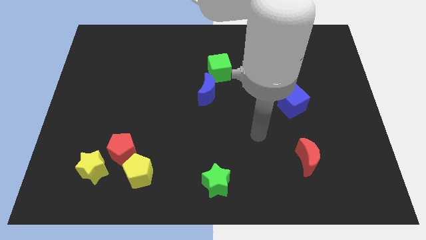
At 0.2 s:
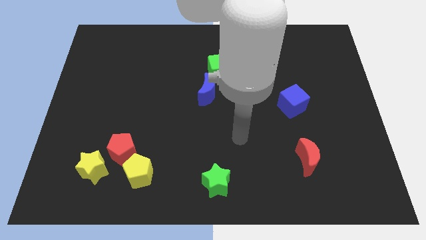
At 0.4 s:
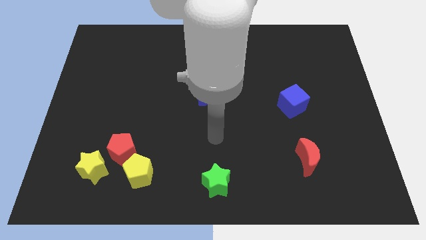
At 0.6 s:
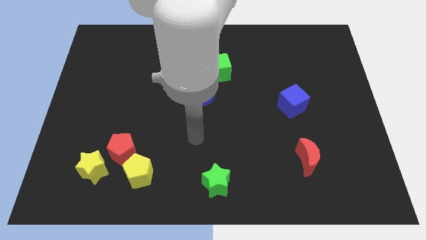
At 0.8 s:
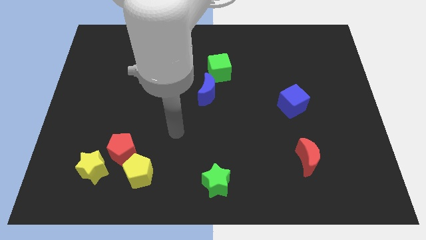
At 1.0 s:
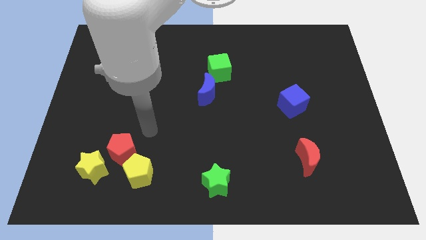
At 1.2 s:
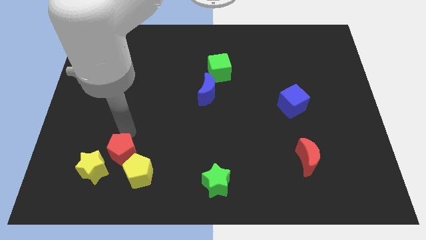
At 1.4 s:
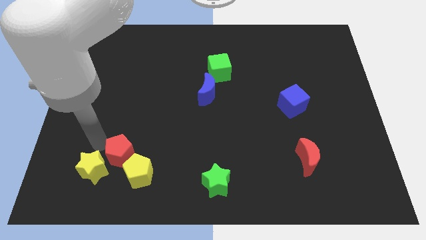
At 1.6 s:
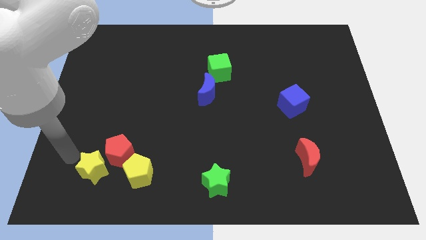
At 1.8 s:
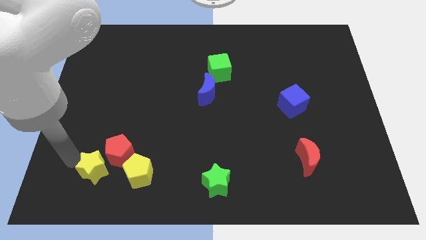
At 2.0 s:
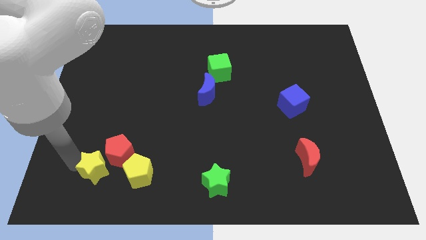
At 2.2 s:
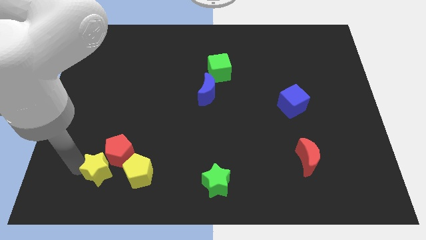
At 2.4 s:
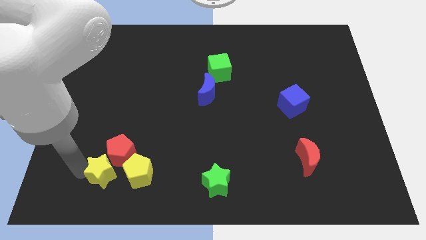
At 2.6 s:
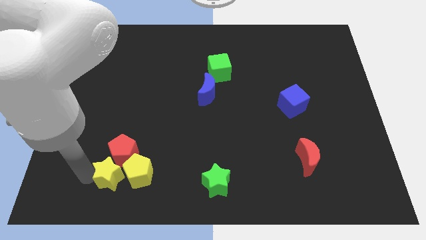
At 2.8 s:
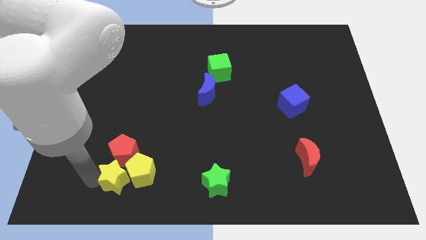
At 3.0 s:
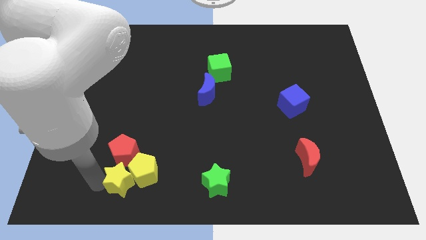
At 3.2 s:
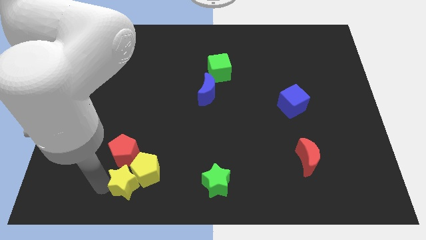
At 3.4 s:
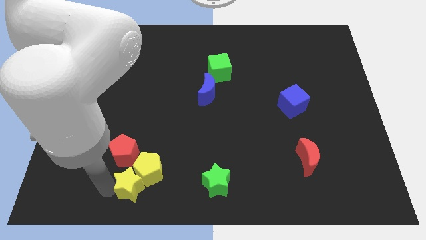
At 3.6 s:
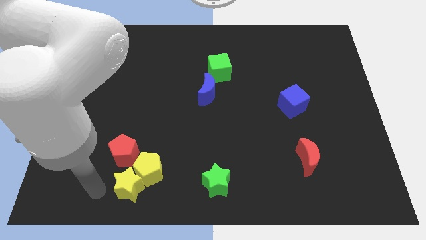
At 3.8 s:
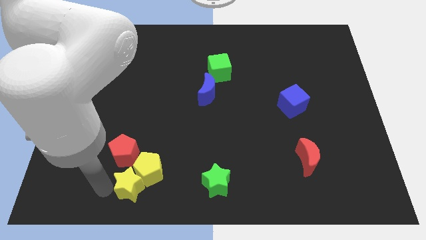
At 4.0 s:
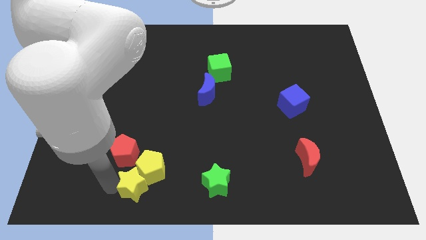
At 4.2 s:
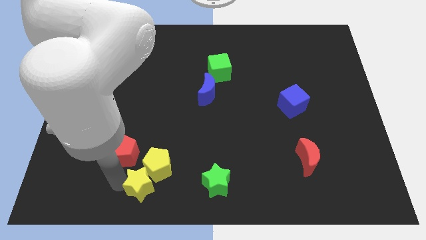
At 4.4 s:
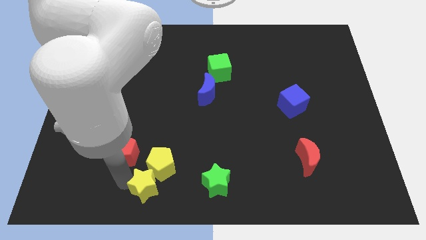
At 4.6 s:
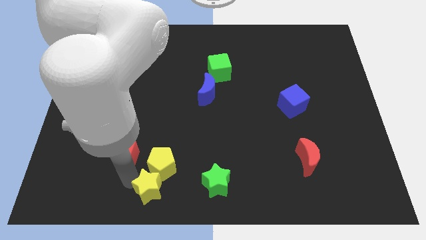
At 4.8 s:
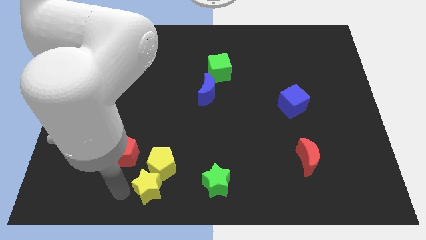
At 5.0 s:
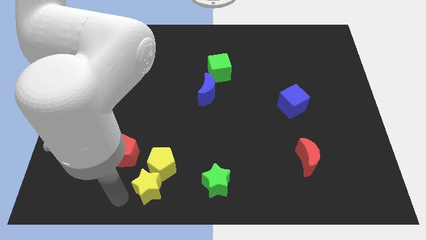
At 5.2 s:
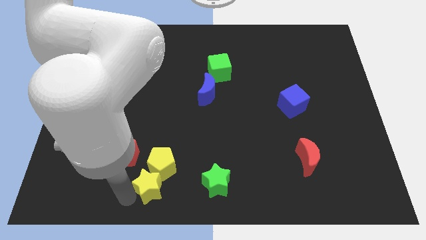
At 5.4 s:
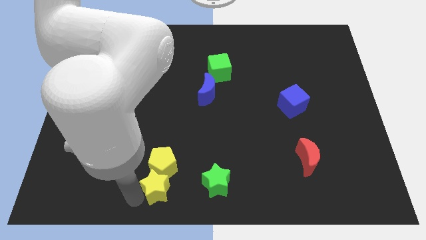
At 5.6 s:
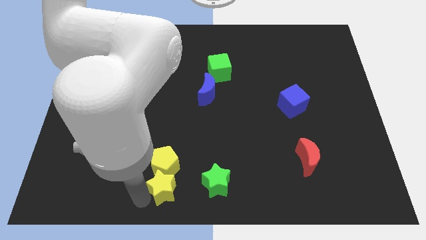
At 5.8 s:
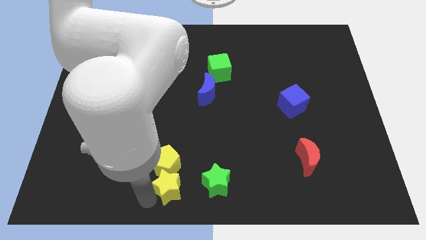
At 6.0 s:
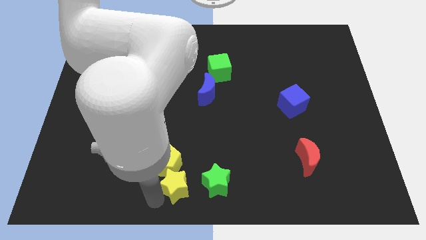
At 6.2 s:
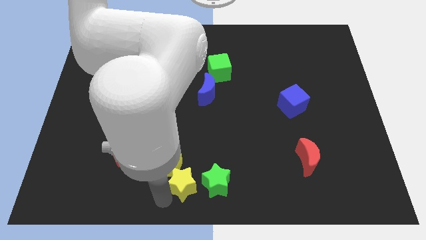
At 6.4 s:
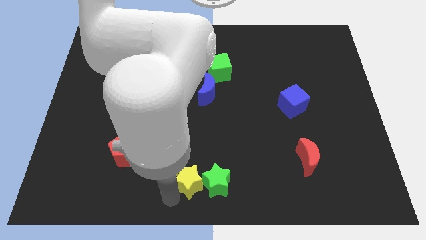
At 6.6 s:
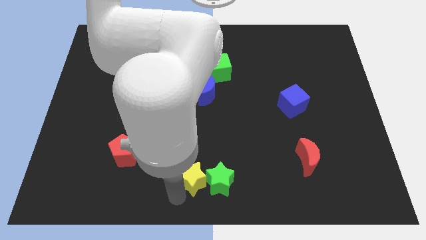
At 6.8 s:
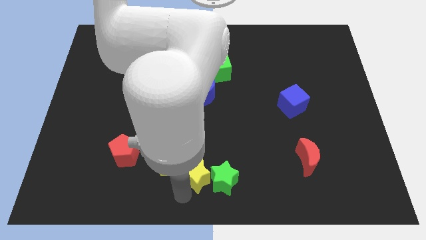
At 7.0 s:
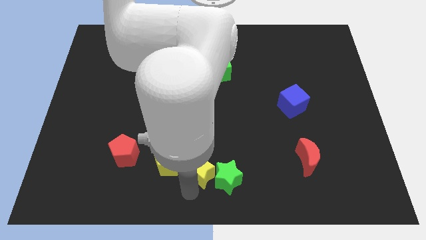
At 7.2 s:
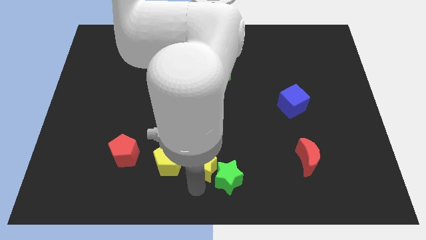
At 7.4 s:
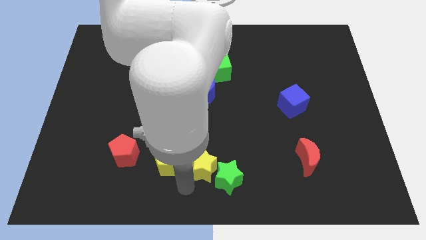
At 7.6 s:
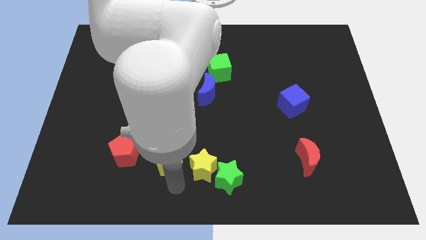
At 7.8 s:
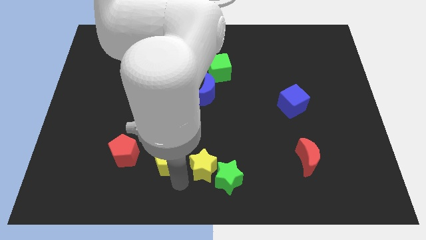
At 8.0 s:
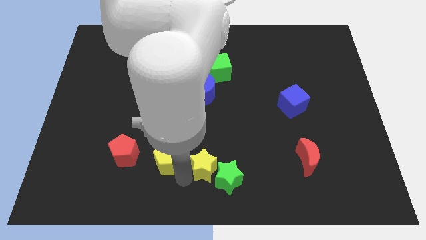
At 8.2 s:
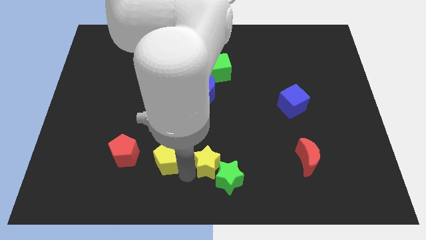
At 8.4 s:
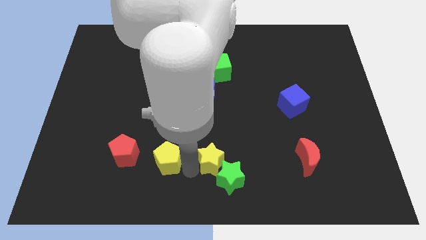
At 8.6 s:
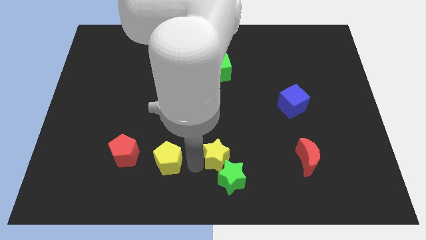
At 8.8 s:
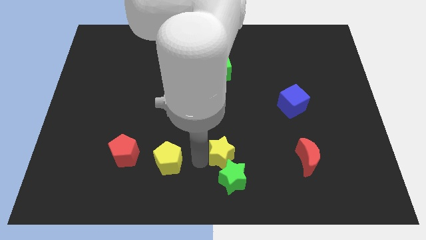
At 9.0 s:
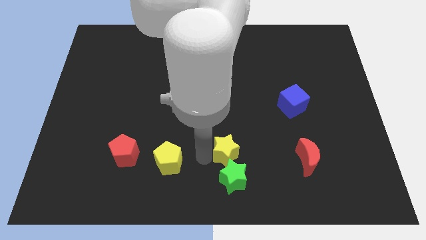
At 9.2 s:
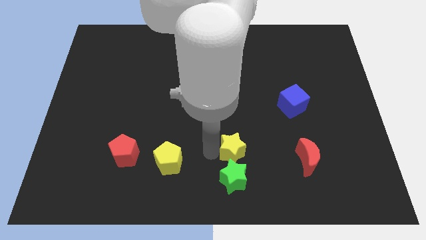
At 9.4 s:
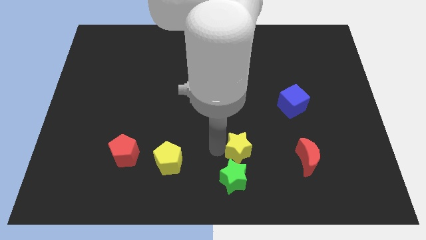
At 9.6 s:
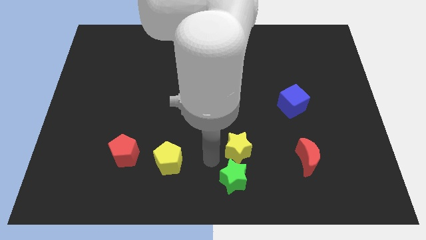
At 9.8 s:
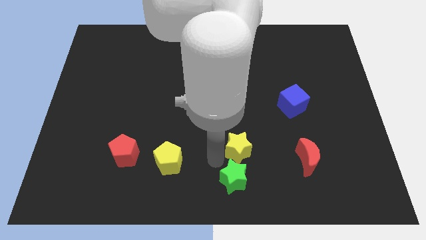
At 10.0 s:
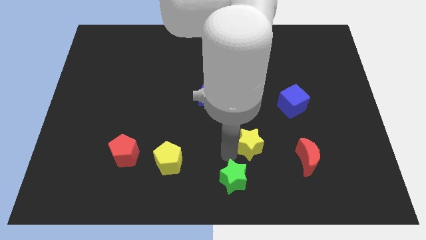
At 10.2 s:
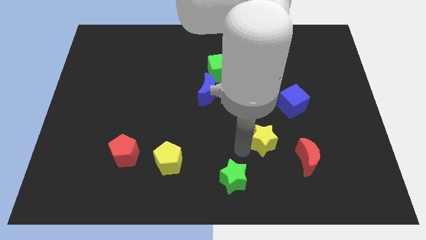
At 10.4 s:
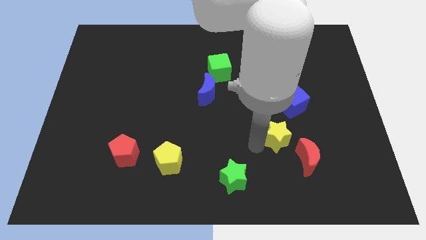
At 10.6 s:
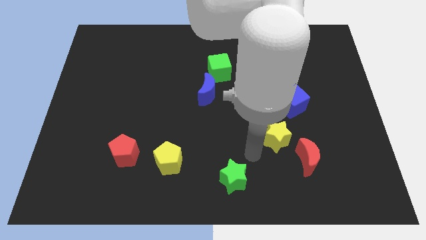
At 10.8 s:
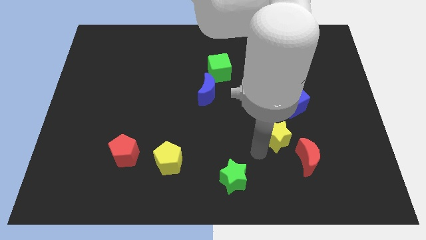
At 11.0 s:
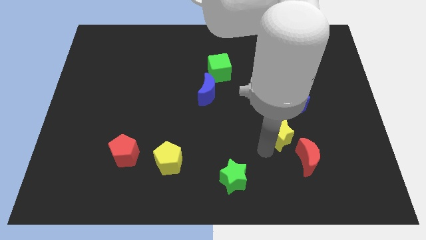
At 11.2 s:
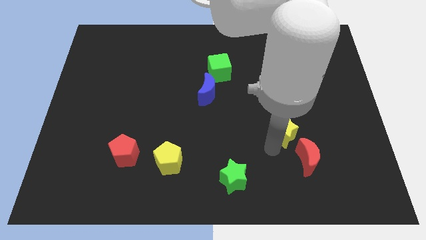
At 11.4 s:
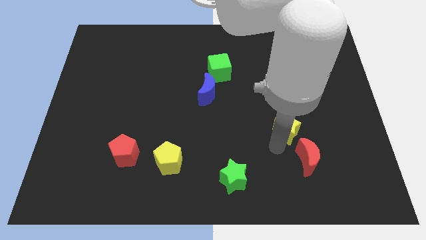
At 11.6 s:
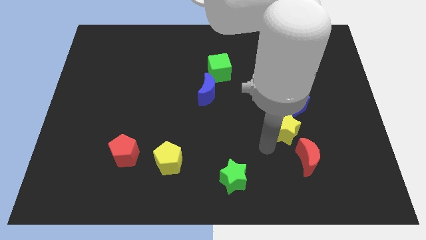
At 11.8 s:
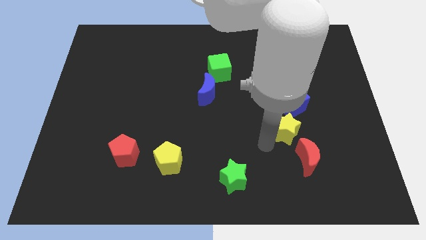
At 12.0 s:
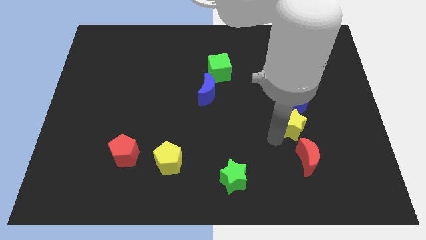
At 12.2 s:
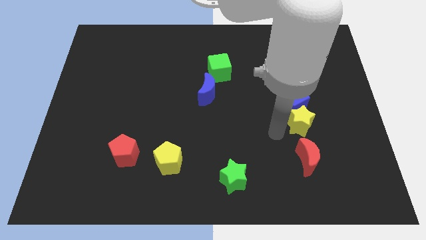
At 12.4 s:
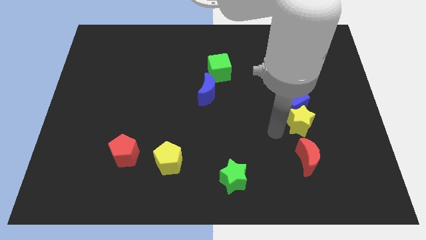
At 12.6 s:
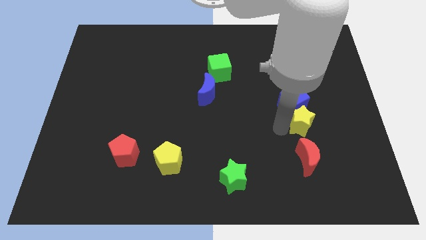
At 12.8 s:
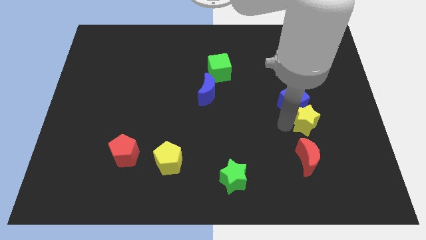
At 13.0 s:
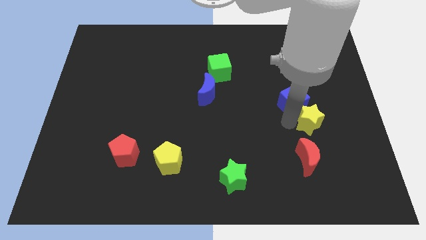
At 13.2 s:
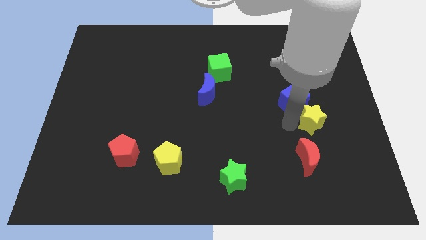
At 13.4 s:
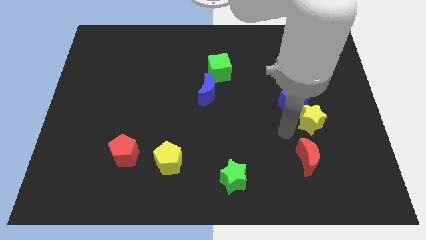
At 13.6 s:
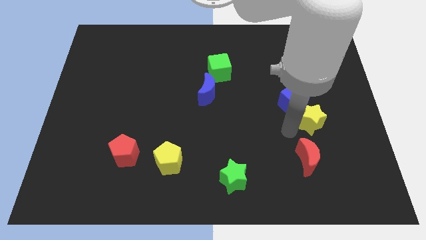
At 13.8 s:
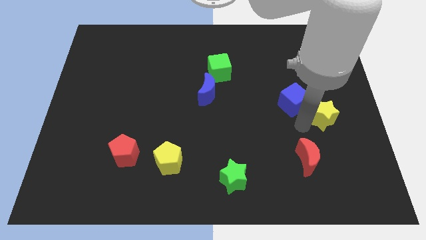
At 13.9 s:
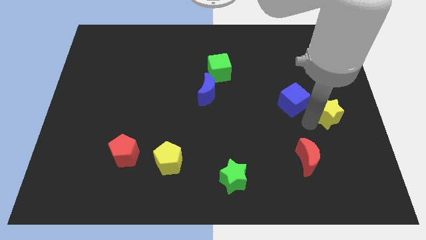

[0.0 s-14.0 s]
slide the yellow star to the right side of the board
